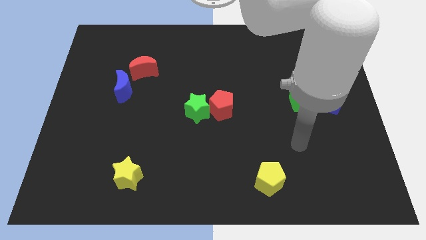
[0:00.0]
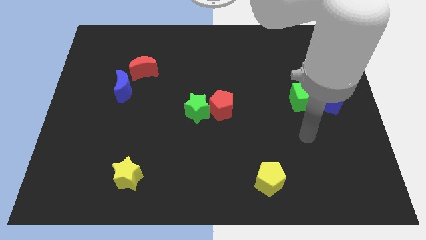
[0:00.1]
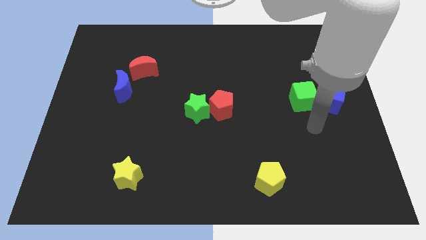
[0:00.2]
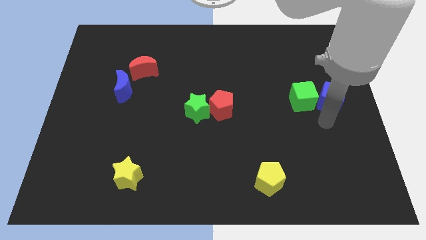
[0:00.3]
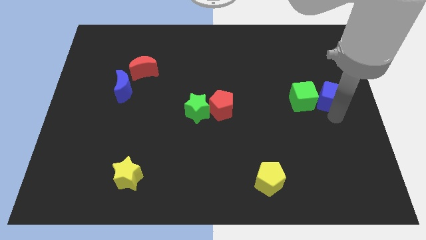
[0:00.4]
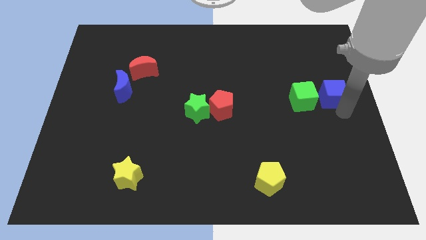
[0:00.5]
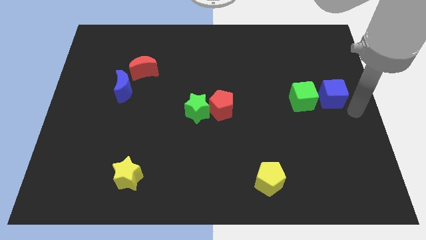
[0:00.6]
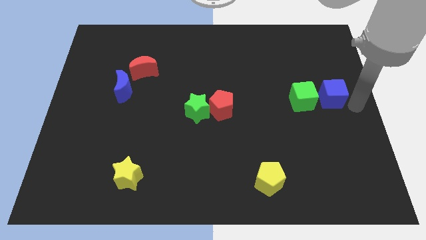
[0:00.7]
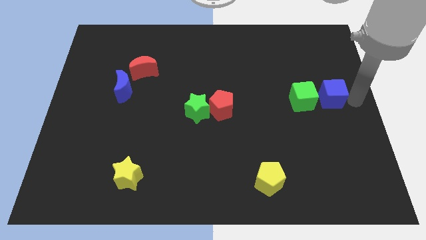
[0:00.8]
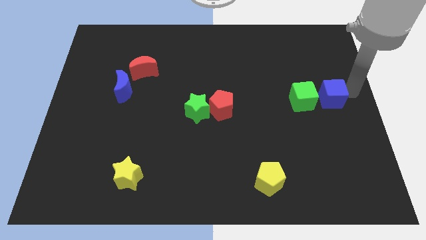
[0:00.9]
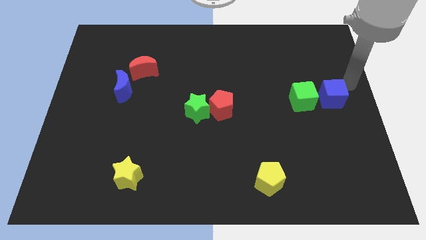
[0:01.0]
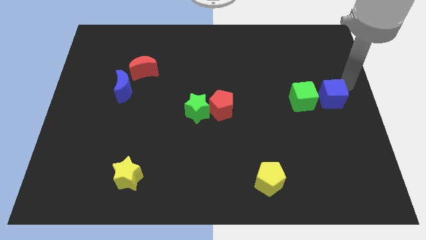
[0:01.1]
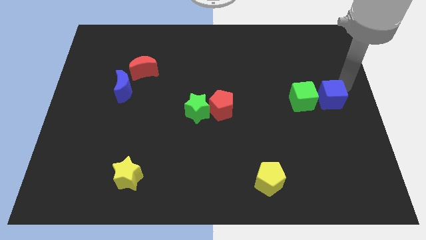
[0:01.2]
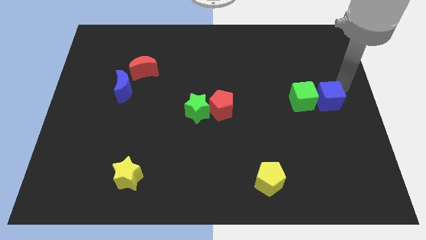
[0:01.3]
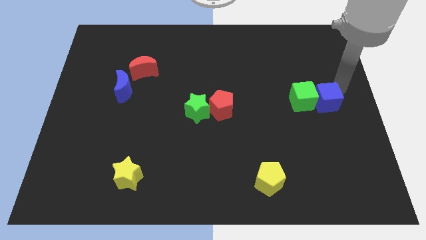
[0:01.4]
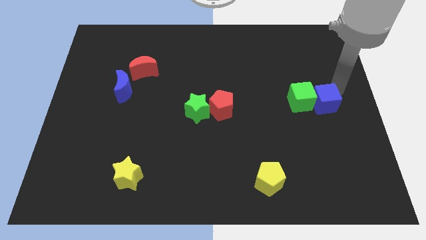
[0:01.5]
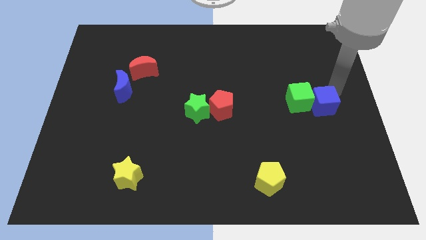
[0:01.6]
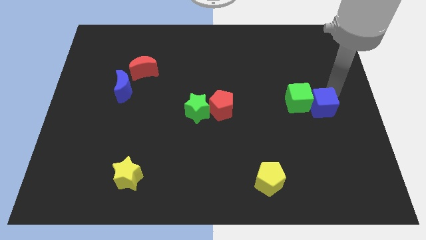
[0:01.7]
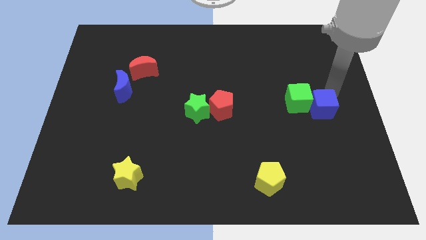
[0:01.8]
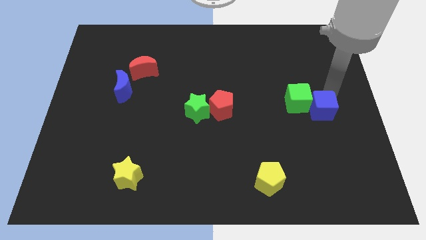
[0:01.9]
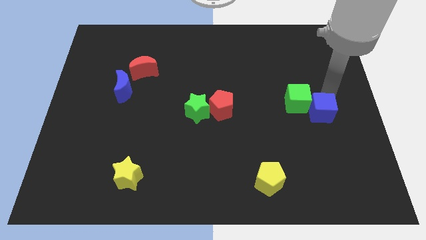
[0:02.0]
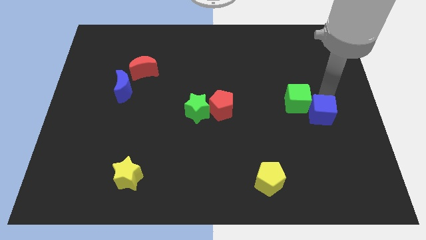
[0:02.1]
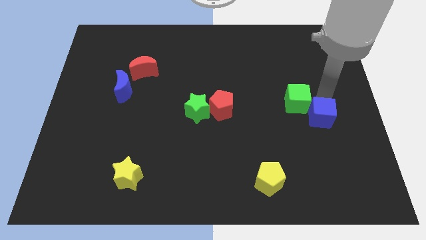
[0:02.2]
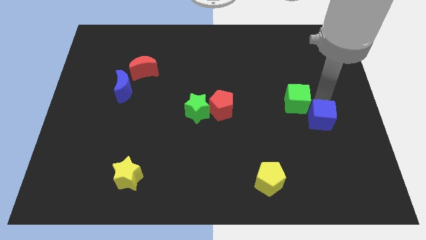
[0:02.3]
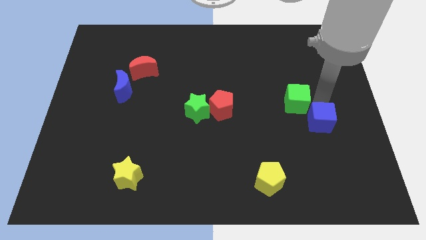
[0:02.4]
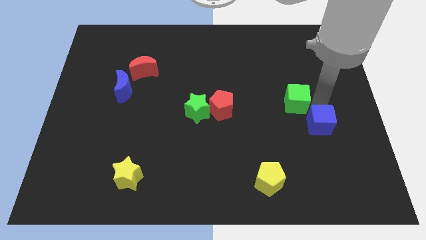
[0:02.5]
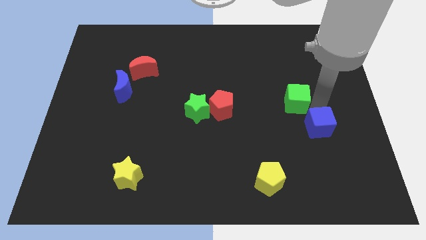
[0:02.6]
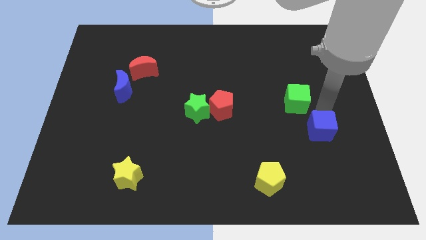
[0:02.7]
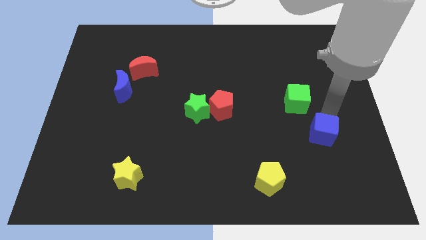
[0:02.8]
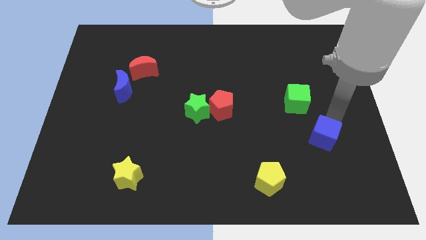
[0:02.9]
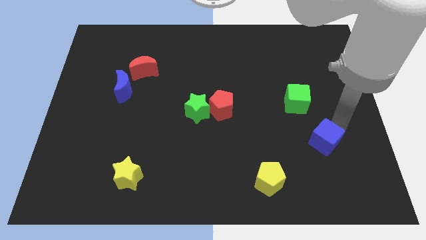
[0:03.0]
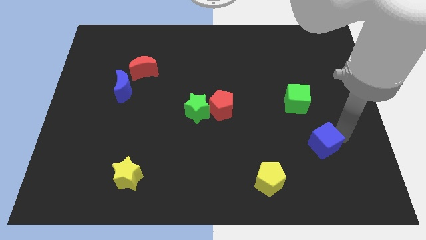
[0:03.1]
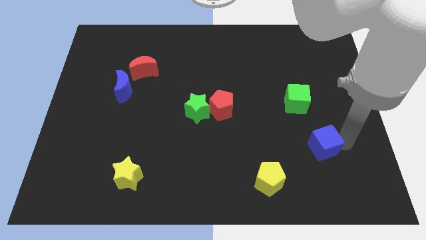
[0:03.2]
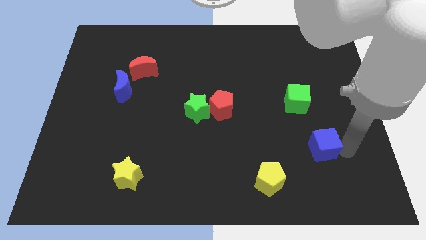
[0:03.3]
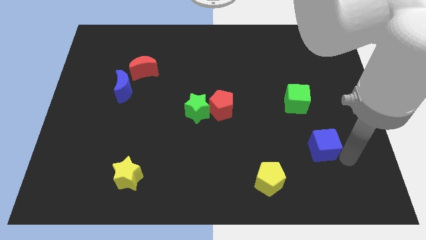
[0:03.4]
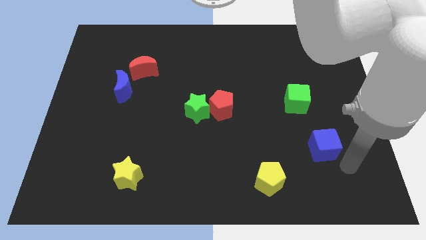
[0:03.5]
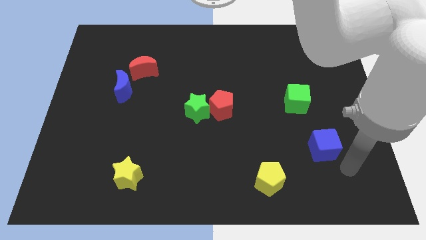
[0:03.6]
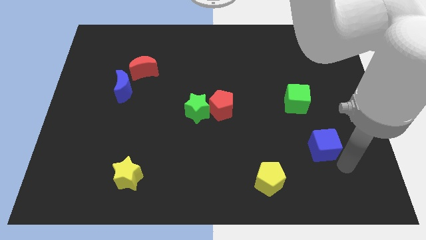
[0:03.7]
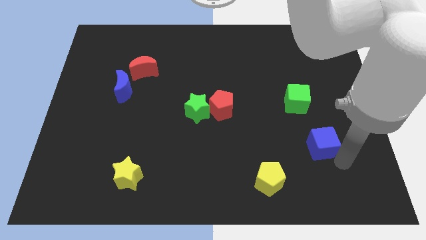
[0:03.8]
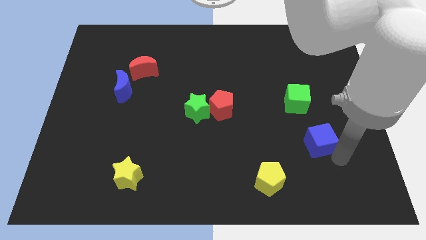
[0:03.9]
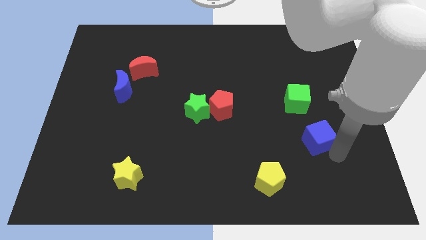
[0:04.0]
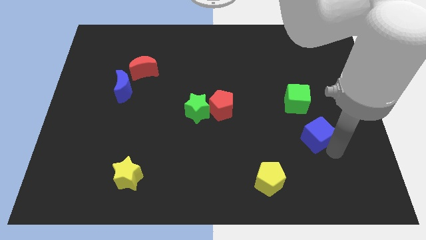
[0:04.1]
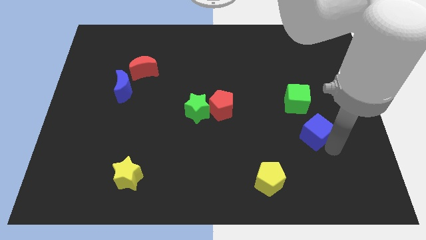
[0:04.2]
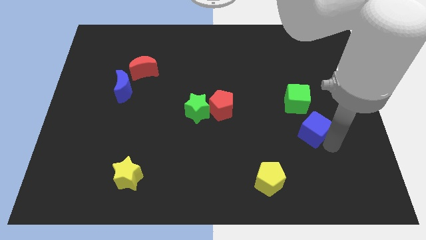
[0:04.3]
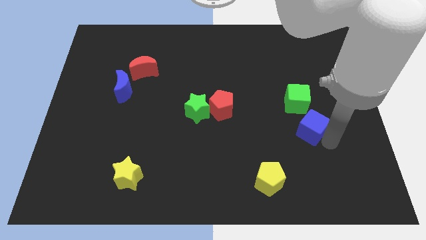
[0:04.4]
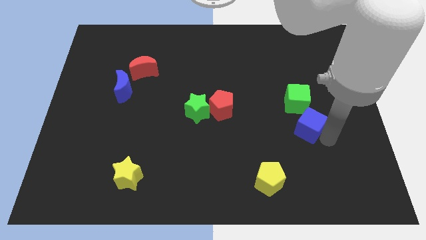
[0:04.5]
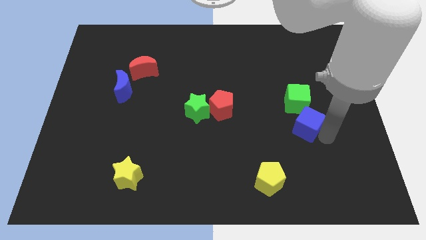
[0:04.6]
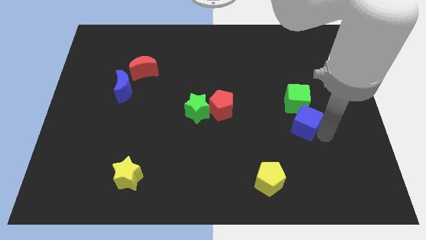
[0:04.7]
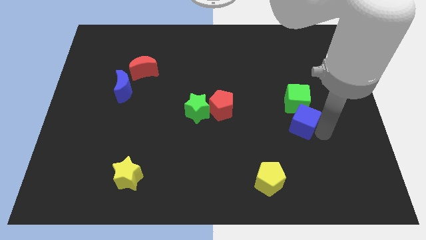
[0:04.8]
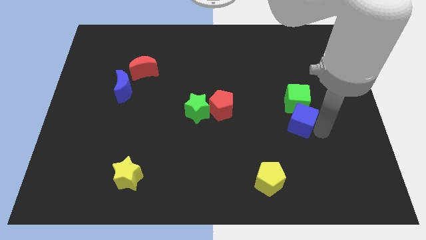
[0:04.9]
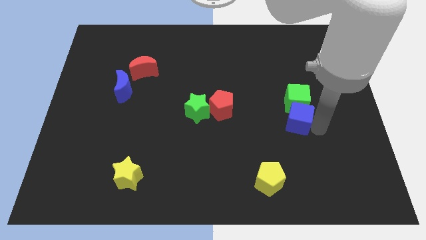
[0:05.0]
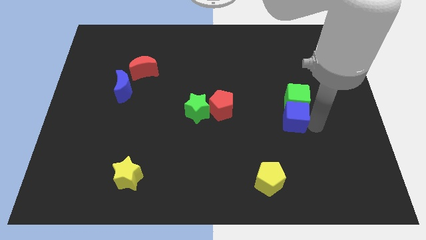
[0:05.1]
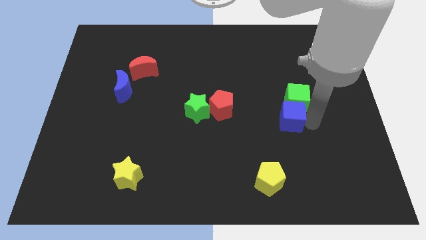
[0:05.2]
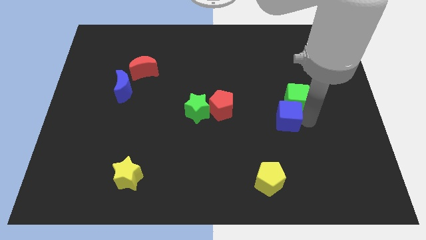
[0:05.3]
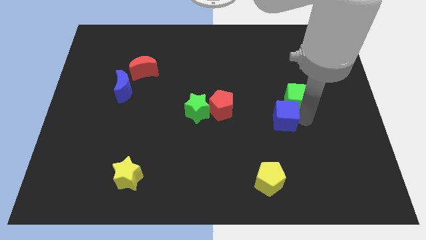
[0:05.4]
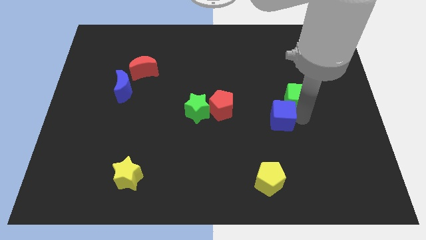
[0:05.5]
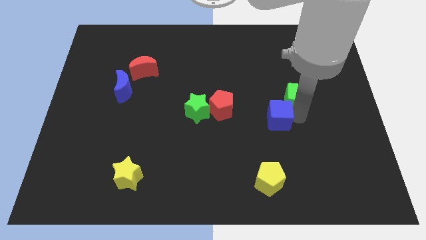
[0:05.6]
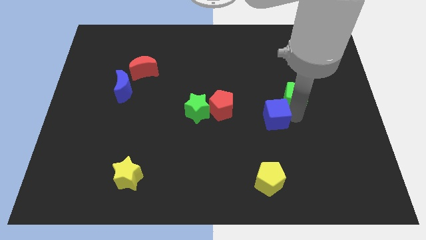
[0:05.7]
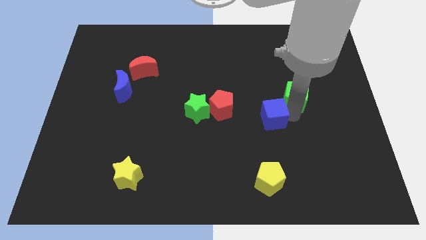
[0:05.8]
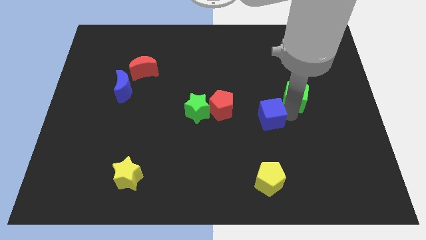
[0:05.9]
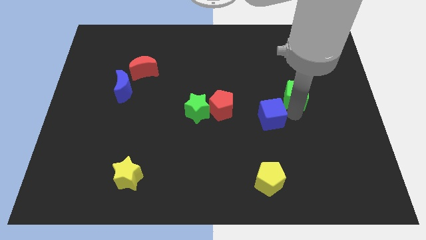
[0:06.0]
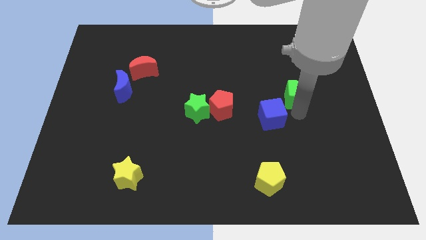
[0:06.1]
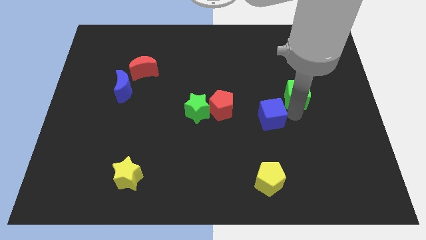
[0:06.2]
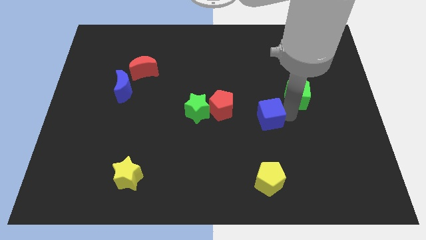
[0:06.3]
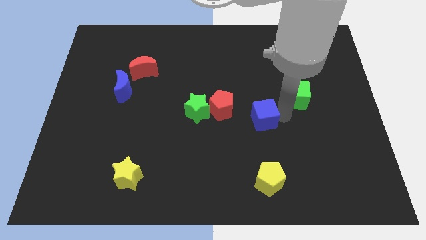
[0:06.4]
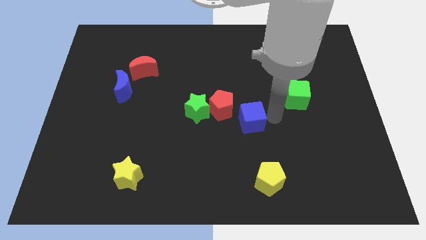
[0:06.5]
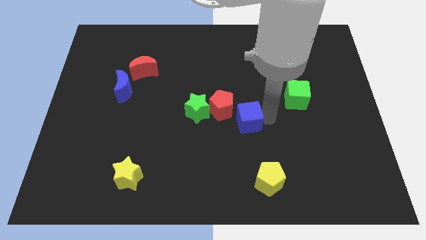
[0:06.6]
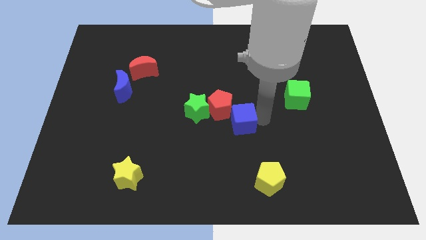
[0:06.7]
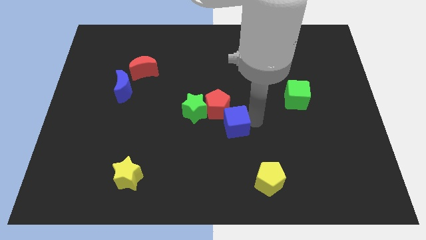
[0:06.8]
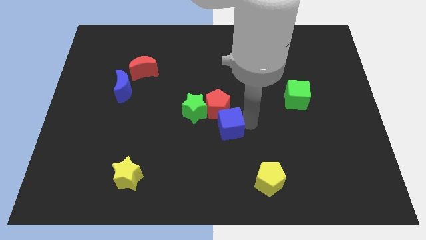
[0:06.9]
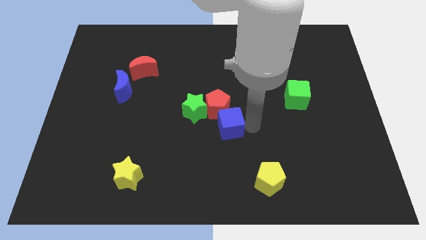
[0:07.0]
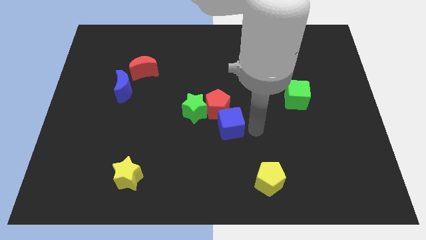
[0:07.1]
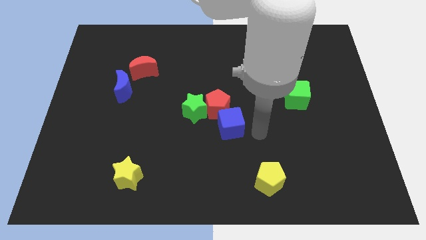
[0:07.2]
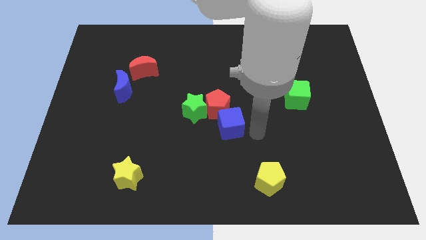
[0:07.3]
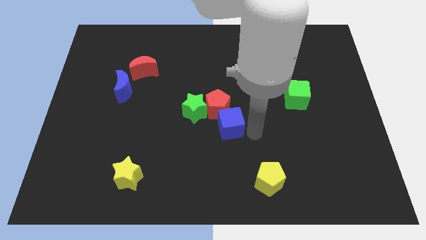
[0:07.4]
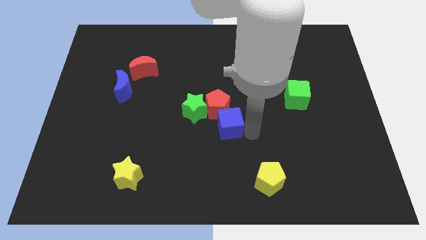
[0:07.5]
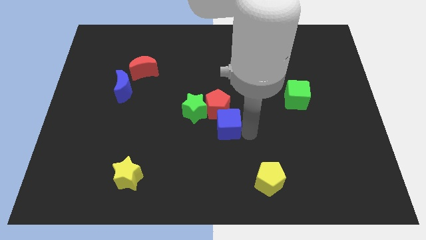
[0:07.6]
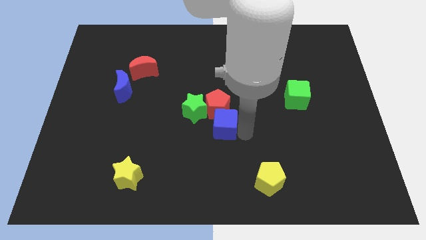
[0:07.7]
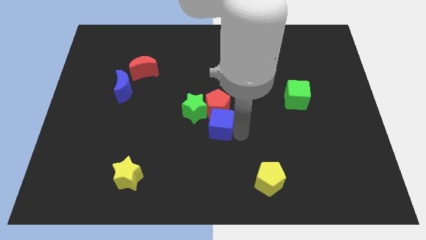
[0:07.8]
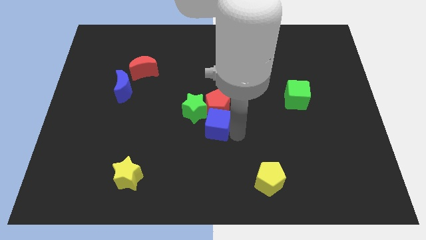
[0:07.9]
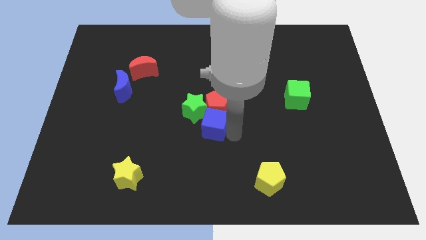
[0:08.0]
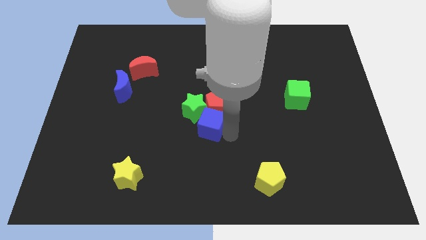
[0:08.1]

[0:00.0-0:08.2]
push the blue cube towards the green star
